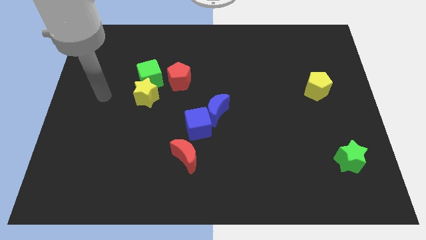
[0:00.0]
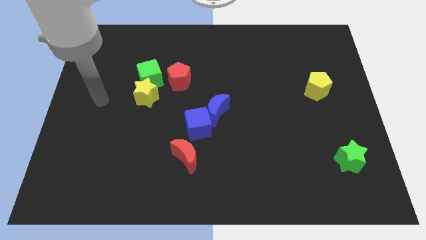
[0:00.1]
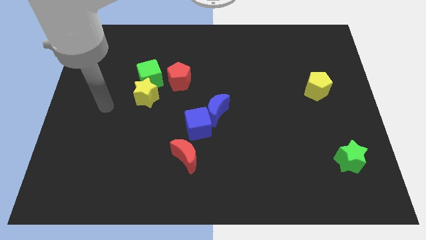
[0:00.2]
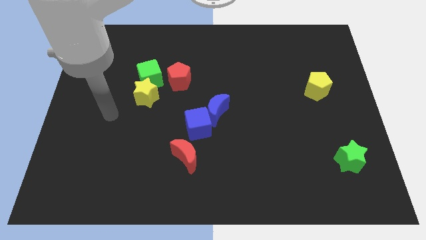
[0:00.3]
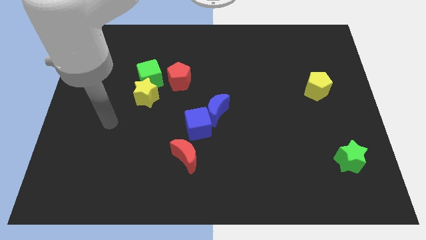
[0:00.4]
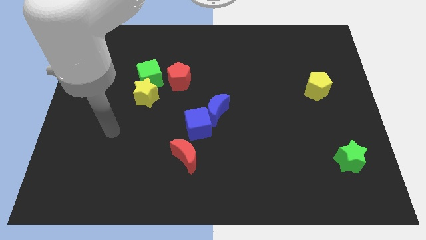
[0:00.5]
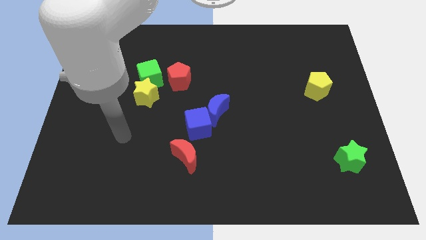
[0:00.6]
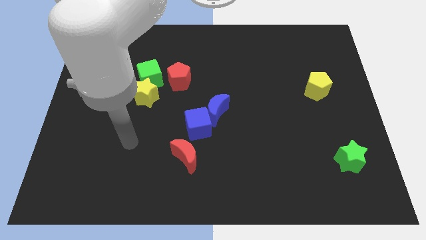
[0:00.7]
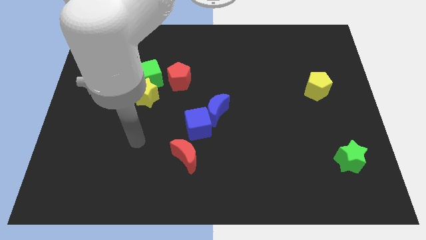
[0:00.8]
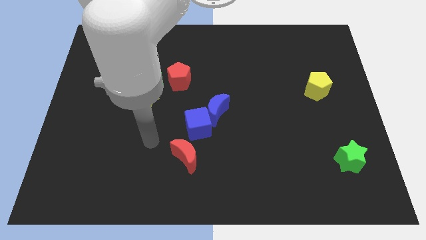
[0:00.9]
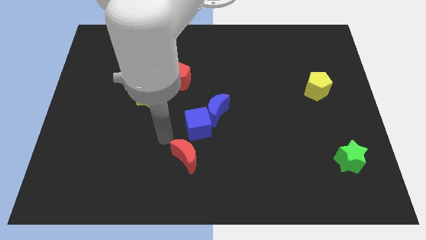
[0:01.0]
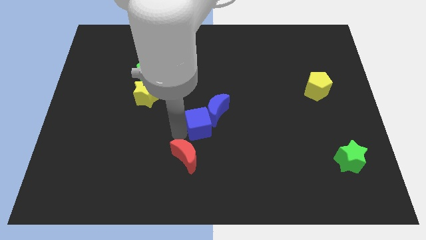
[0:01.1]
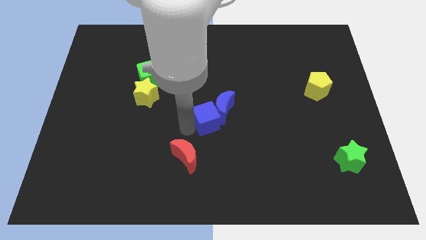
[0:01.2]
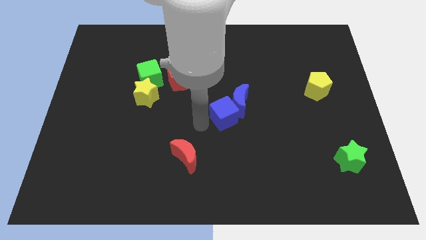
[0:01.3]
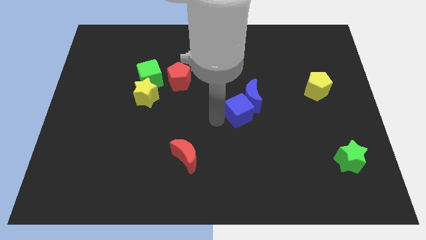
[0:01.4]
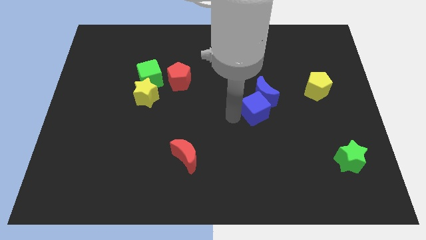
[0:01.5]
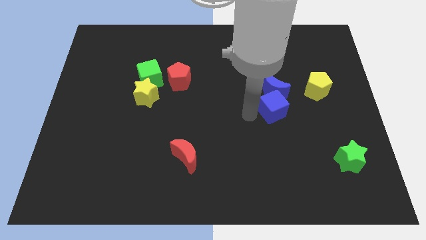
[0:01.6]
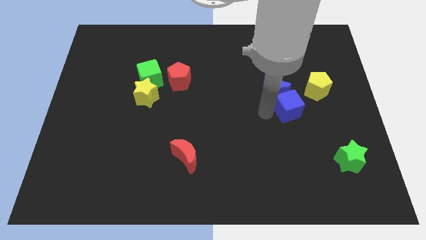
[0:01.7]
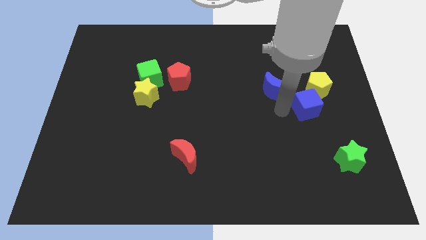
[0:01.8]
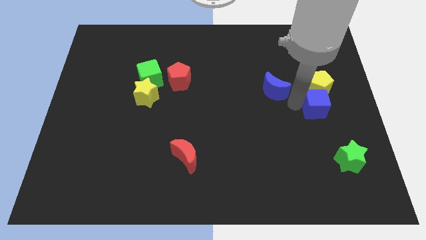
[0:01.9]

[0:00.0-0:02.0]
separate the blue moon from the blue cube

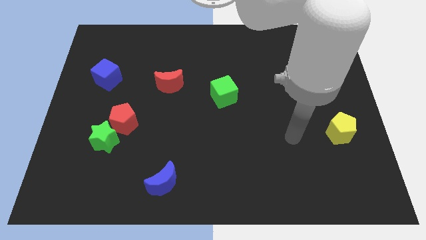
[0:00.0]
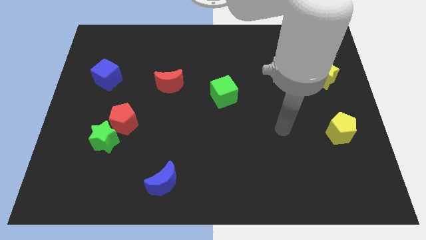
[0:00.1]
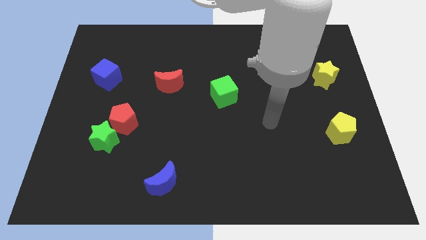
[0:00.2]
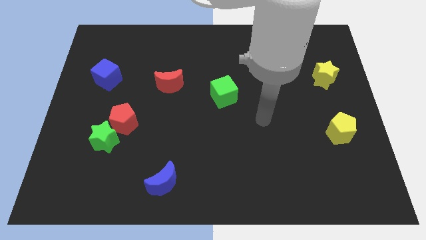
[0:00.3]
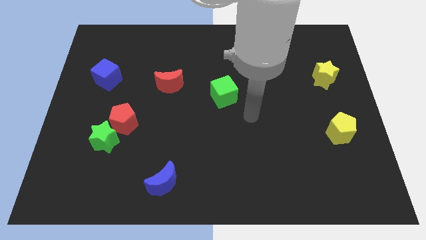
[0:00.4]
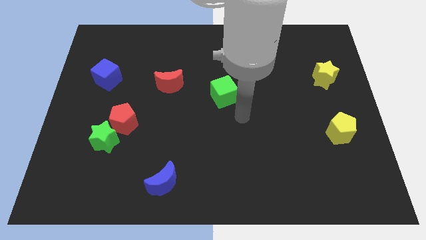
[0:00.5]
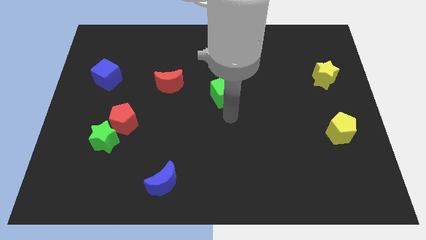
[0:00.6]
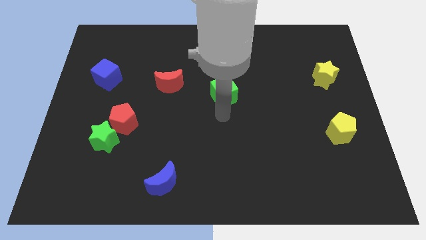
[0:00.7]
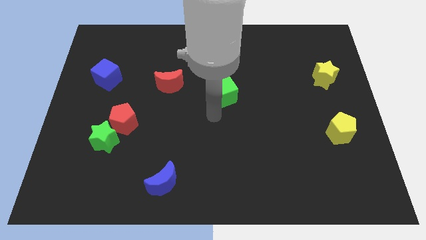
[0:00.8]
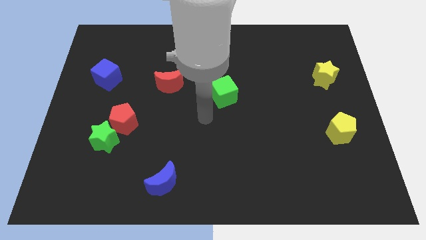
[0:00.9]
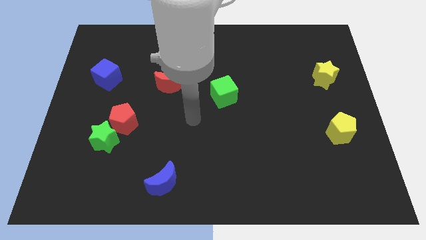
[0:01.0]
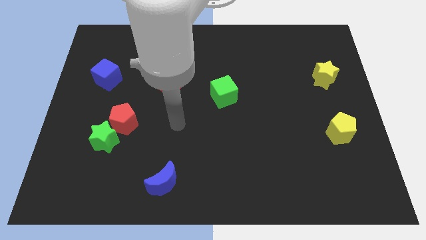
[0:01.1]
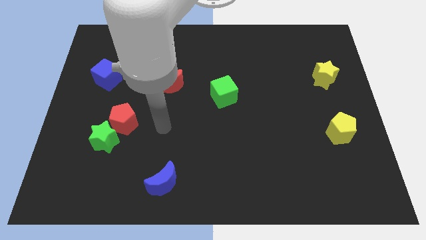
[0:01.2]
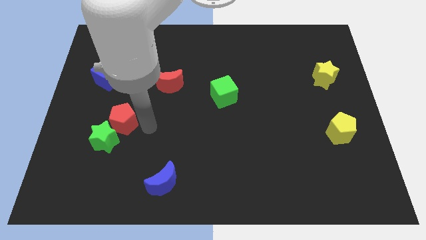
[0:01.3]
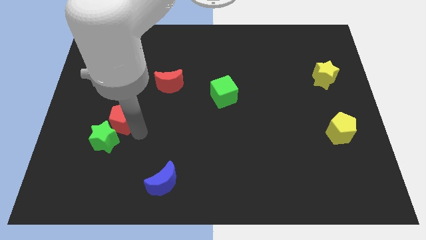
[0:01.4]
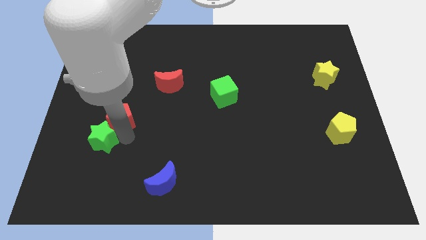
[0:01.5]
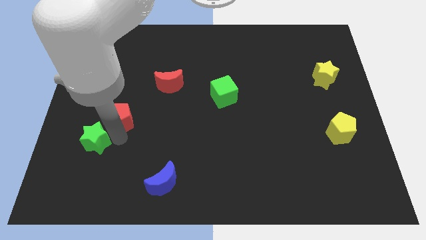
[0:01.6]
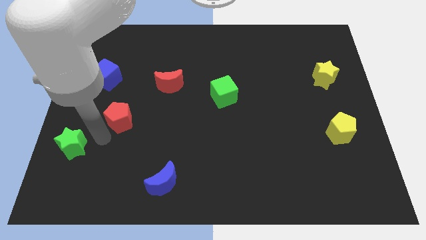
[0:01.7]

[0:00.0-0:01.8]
separate the red pentagon from the green star

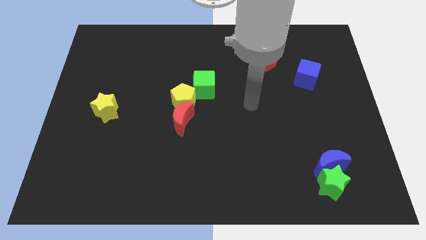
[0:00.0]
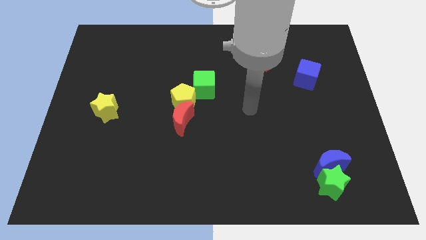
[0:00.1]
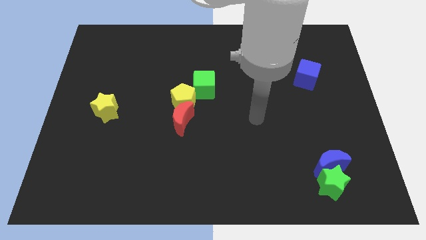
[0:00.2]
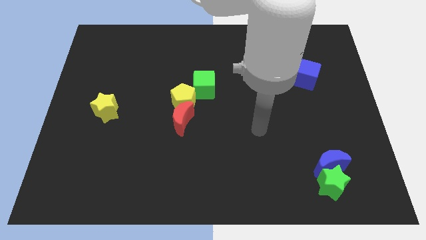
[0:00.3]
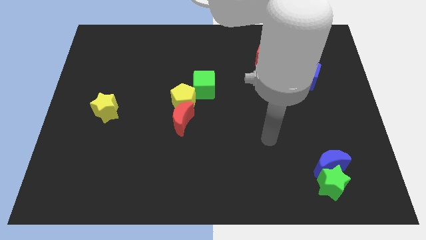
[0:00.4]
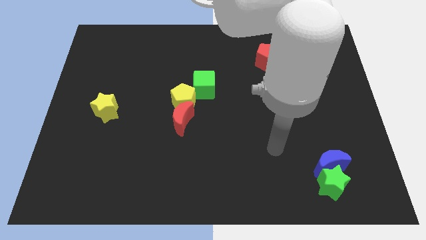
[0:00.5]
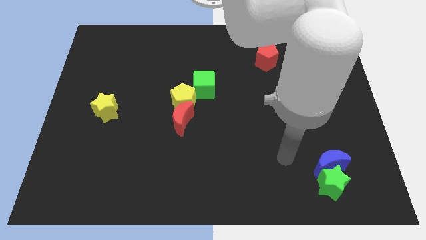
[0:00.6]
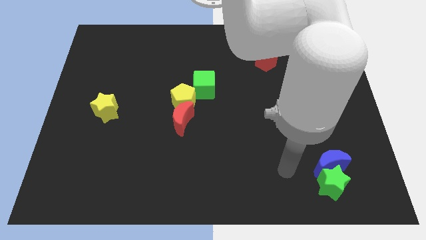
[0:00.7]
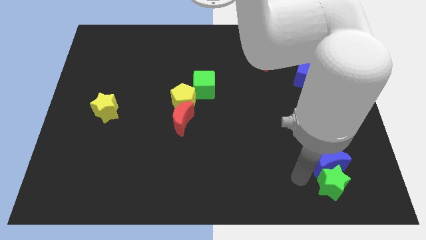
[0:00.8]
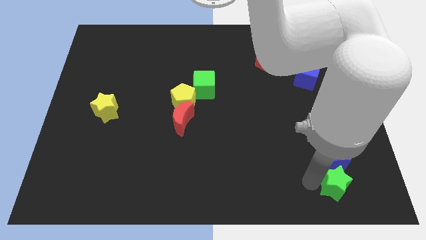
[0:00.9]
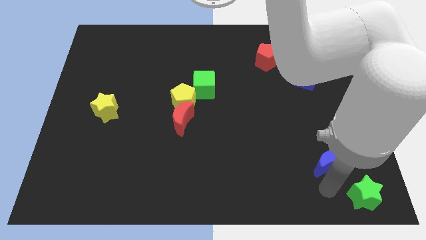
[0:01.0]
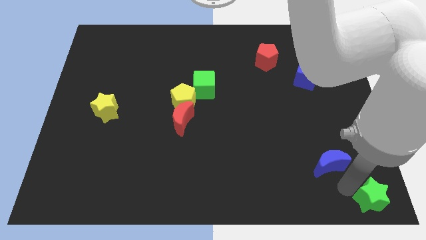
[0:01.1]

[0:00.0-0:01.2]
move the blue moon away from the green star

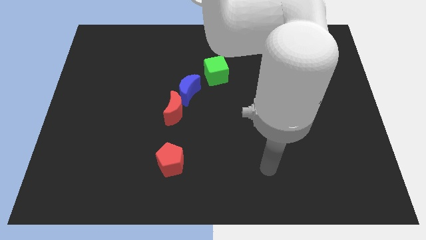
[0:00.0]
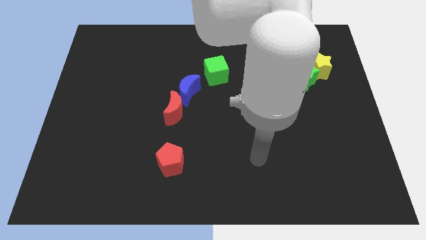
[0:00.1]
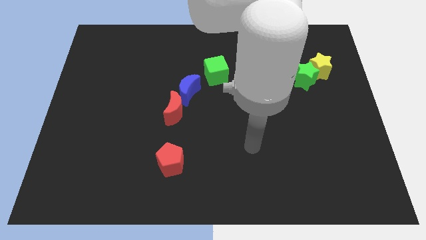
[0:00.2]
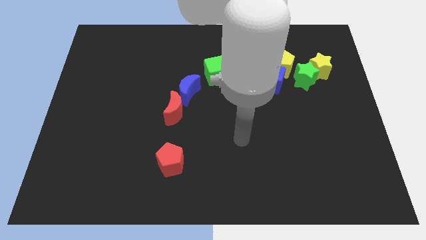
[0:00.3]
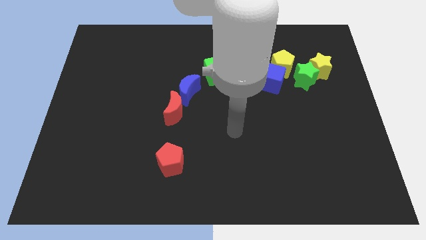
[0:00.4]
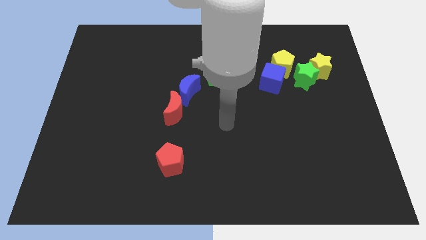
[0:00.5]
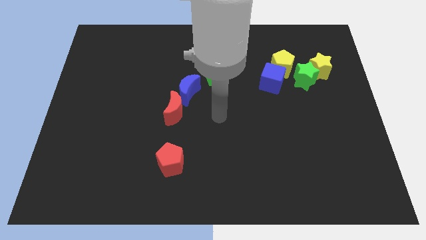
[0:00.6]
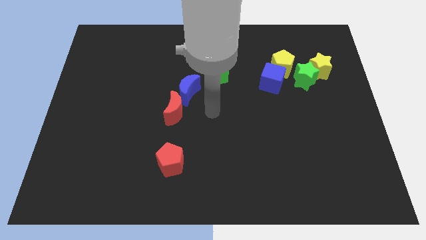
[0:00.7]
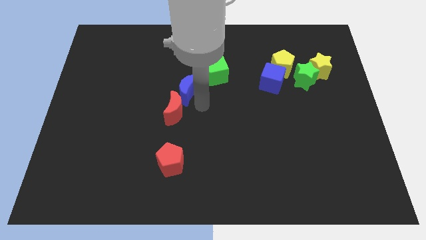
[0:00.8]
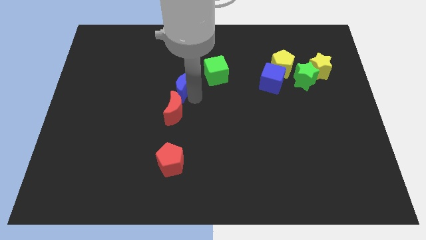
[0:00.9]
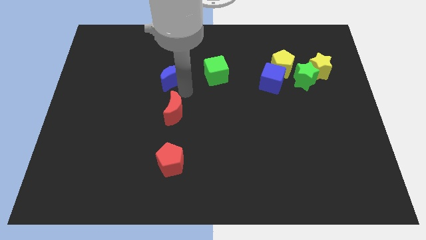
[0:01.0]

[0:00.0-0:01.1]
pull the red moon apart from the blue moon

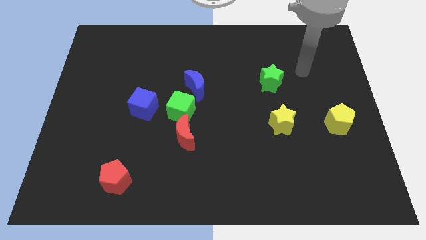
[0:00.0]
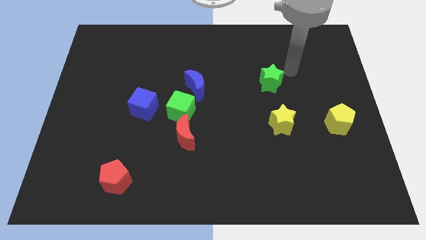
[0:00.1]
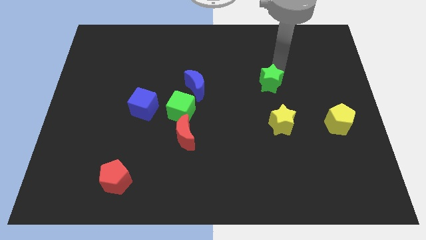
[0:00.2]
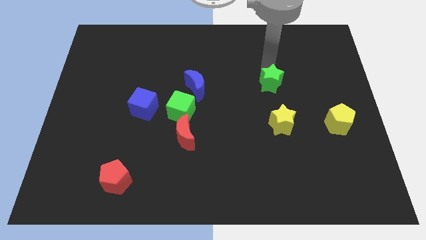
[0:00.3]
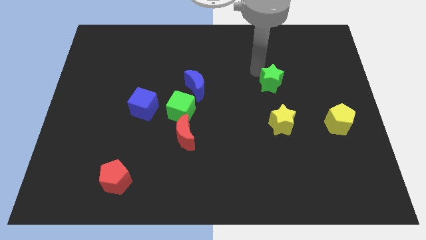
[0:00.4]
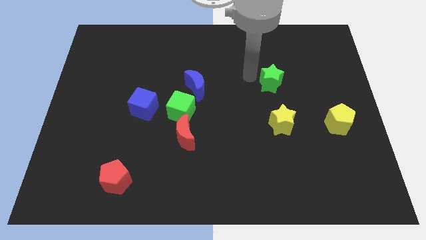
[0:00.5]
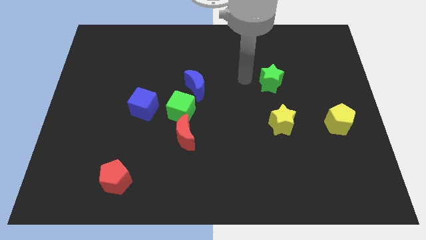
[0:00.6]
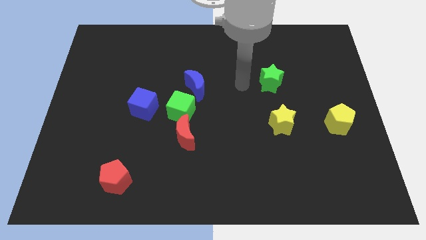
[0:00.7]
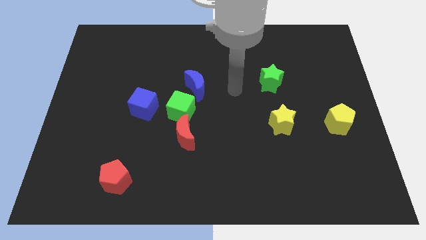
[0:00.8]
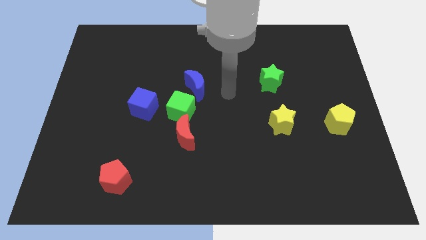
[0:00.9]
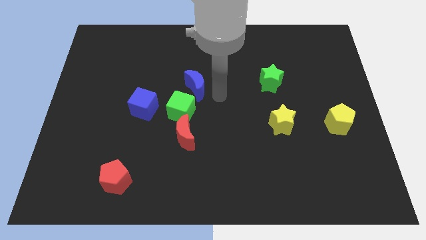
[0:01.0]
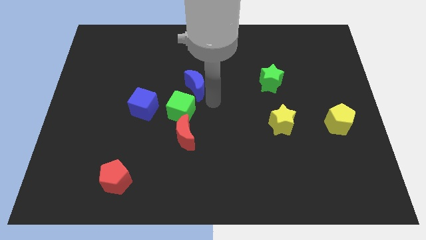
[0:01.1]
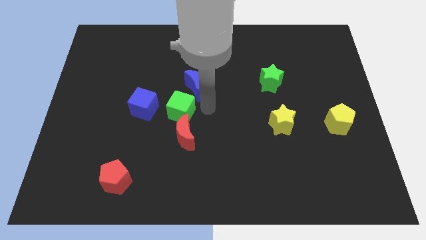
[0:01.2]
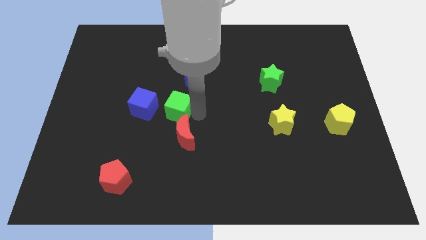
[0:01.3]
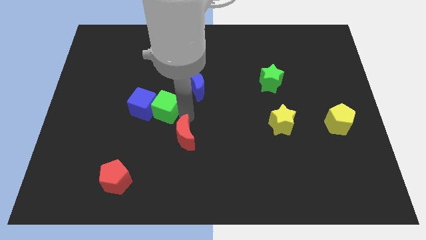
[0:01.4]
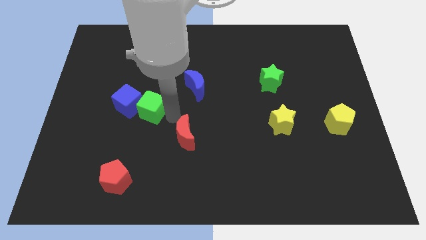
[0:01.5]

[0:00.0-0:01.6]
separate the red moon from the green cube

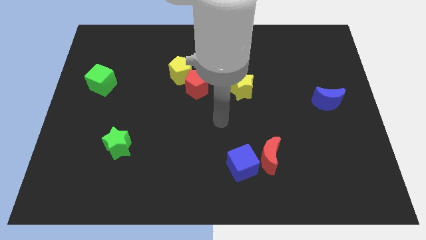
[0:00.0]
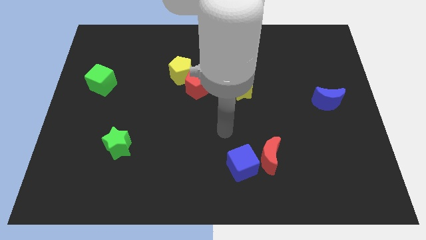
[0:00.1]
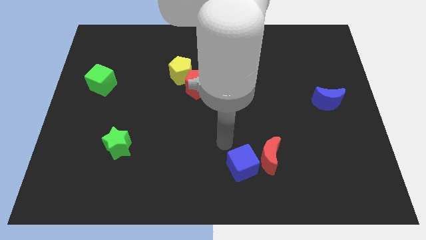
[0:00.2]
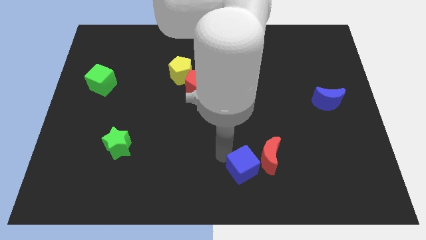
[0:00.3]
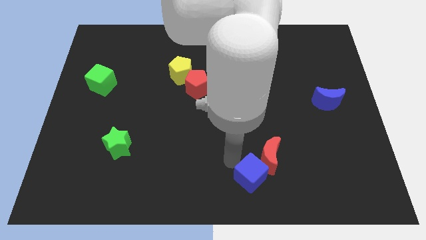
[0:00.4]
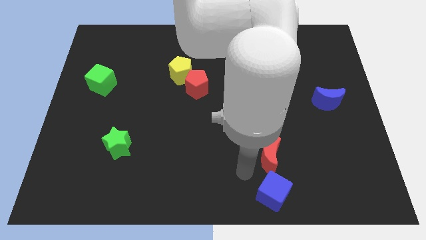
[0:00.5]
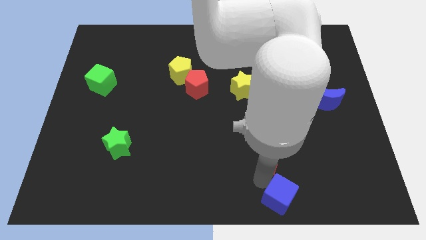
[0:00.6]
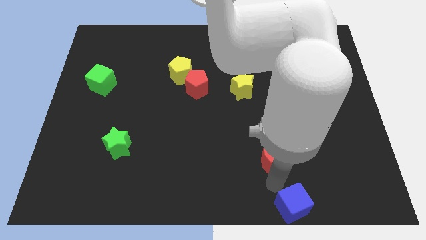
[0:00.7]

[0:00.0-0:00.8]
separate the red moon from the blue cube

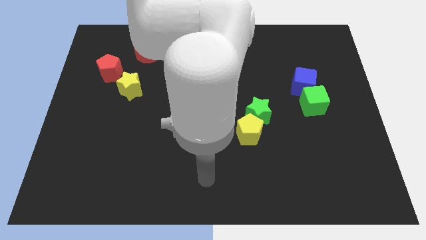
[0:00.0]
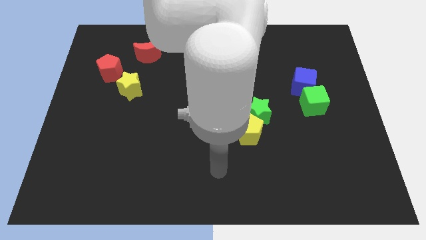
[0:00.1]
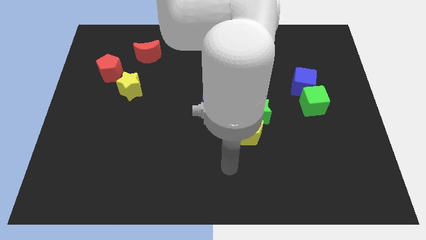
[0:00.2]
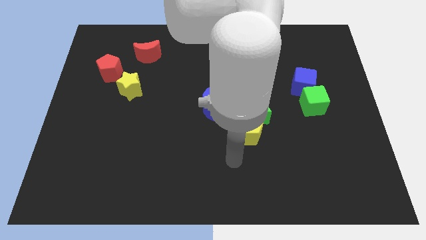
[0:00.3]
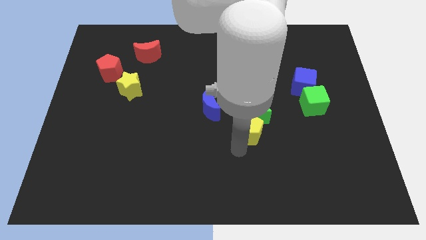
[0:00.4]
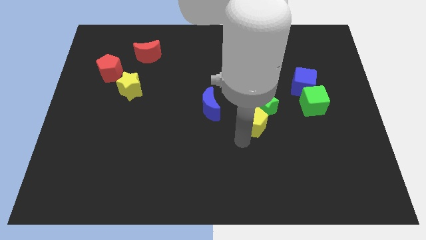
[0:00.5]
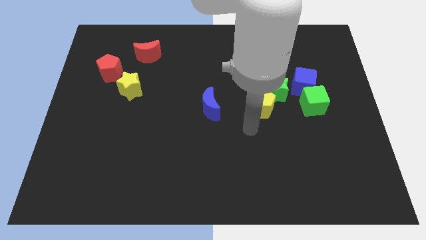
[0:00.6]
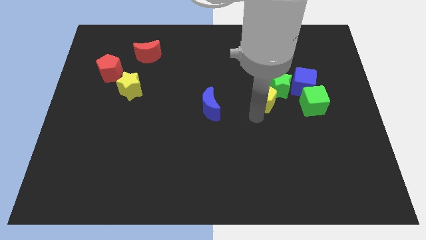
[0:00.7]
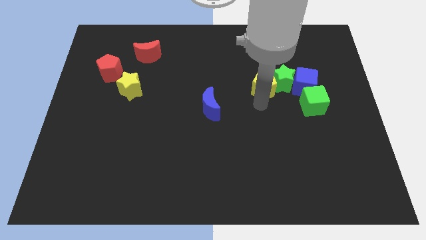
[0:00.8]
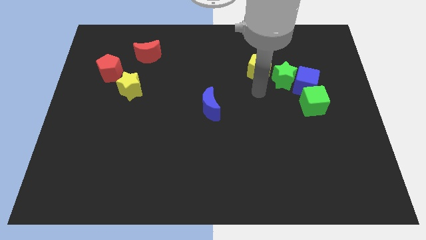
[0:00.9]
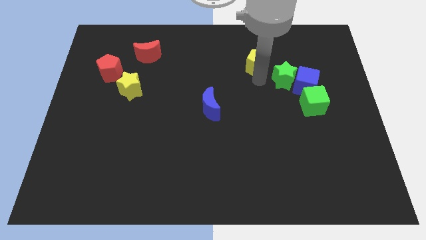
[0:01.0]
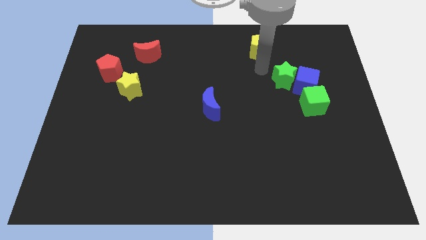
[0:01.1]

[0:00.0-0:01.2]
move the green star away from the yellow pentagon
